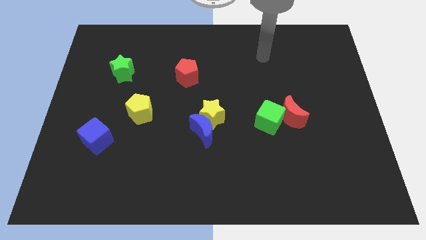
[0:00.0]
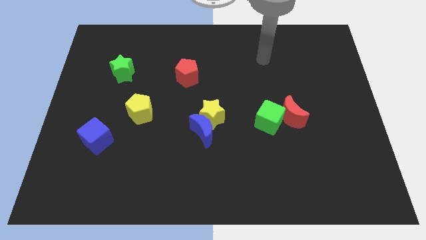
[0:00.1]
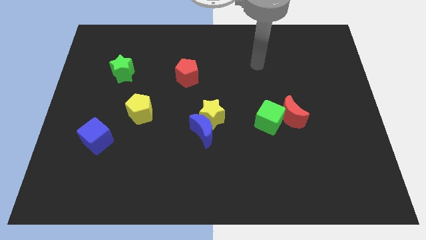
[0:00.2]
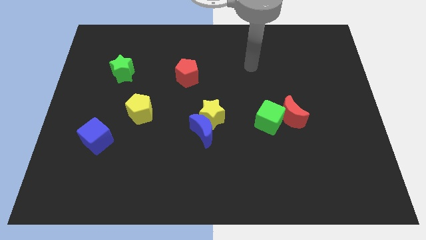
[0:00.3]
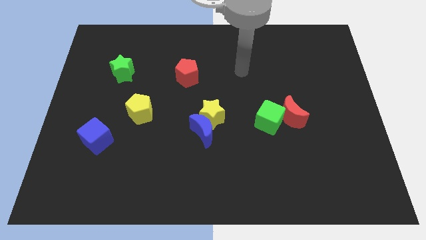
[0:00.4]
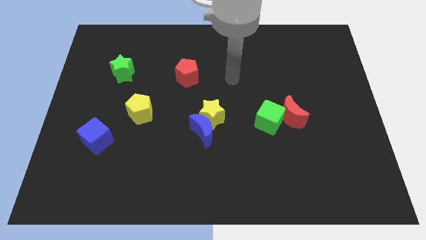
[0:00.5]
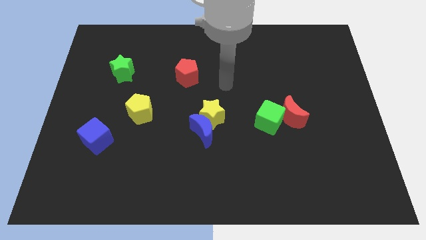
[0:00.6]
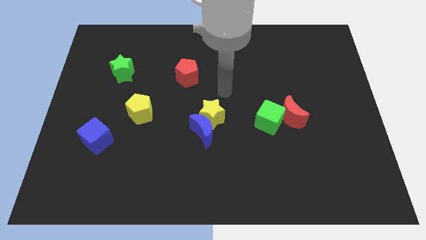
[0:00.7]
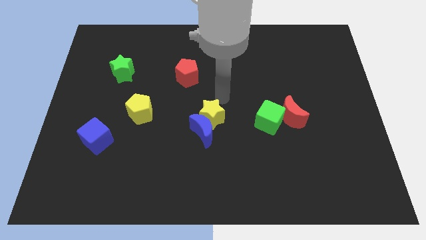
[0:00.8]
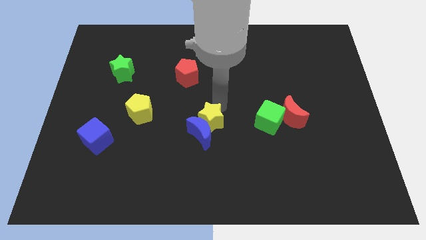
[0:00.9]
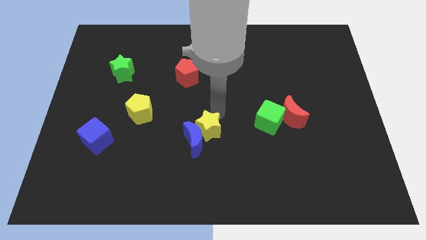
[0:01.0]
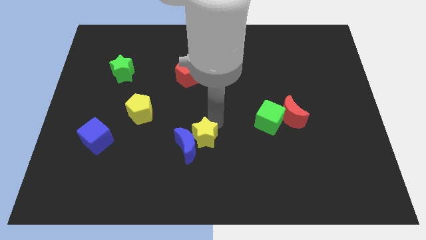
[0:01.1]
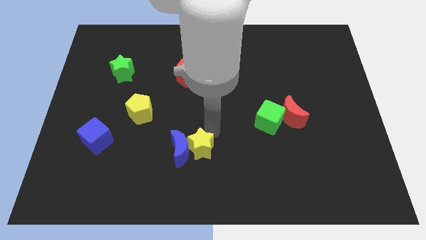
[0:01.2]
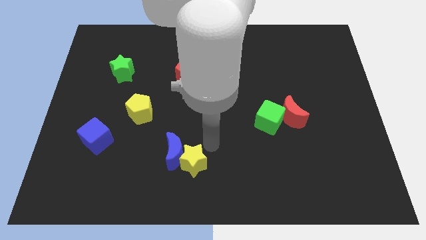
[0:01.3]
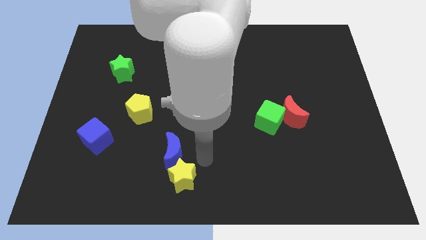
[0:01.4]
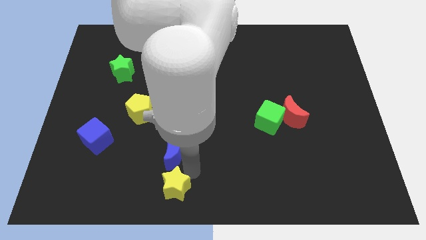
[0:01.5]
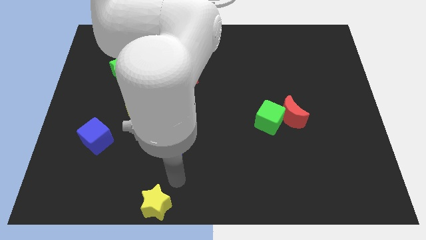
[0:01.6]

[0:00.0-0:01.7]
pull the blue moon apart from the yellow star

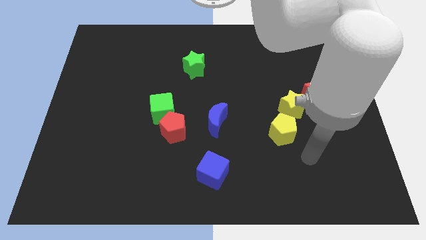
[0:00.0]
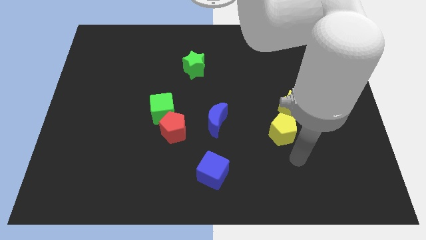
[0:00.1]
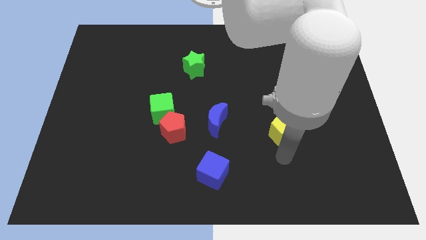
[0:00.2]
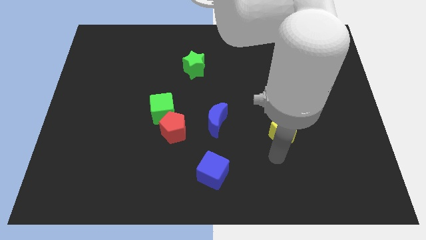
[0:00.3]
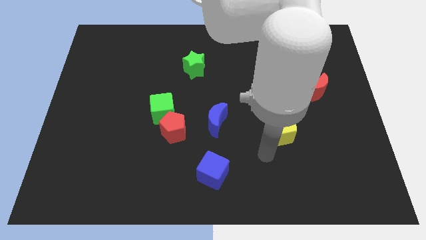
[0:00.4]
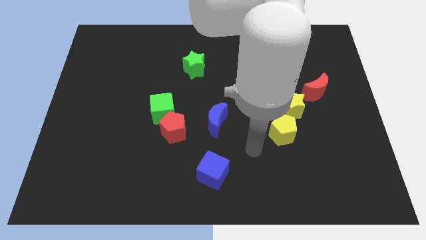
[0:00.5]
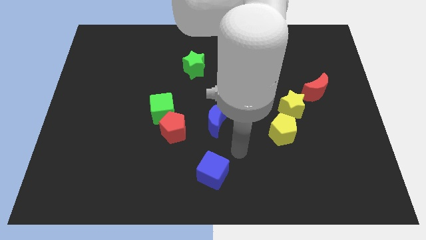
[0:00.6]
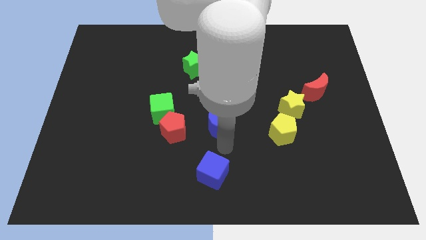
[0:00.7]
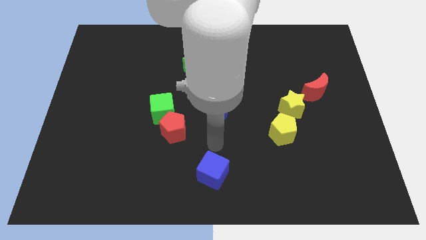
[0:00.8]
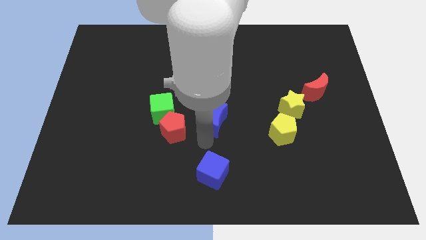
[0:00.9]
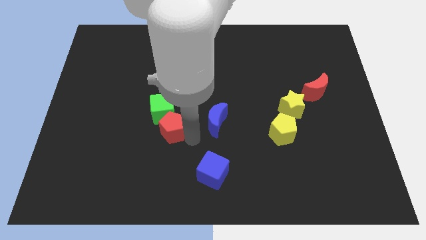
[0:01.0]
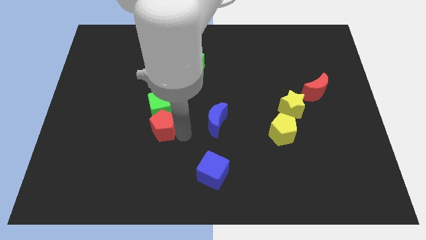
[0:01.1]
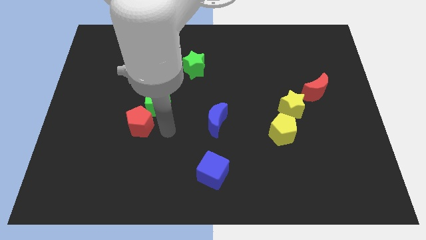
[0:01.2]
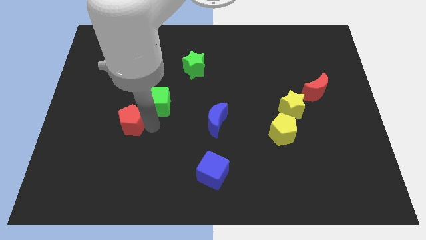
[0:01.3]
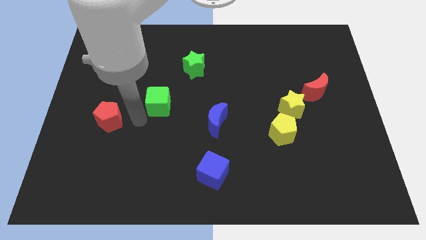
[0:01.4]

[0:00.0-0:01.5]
pull the green cube apart from the red pentagon

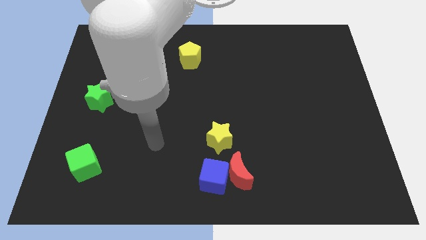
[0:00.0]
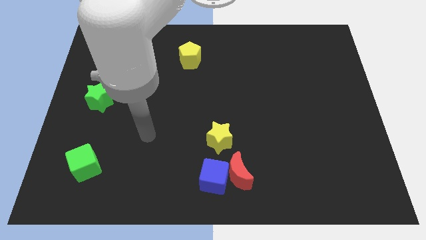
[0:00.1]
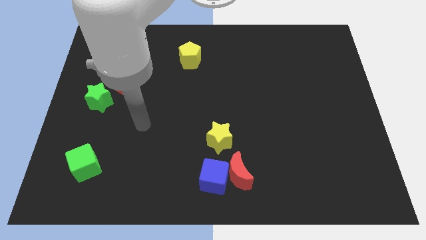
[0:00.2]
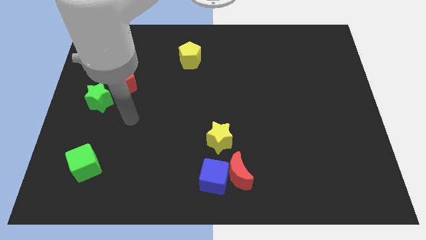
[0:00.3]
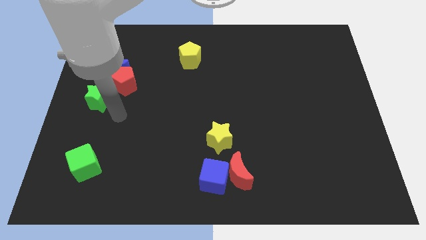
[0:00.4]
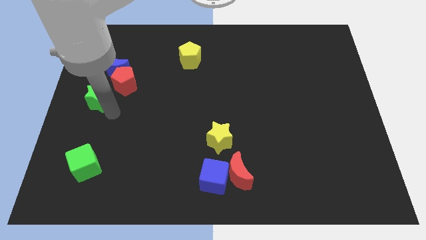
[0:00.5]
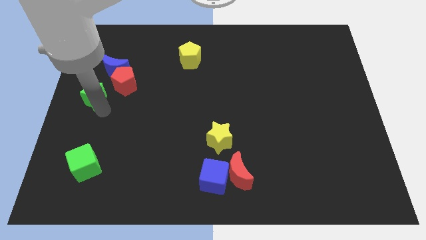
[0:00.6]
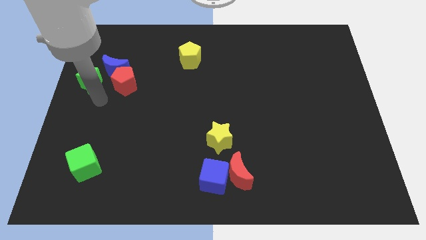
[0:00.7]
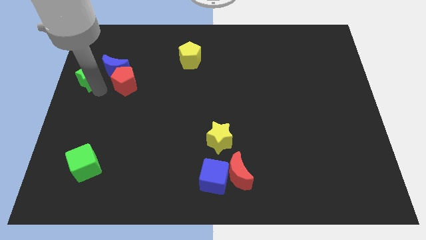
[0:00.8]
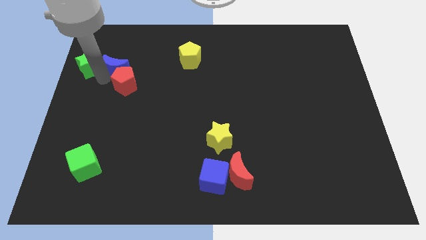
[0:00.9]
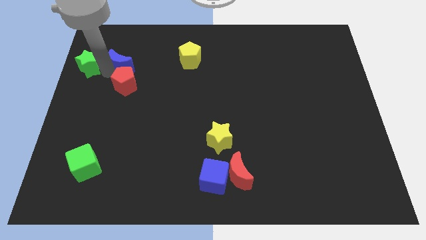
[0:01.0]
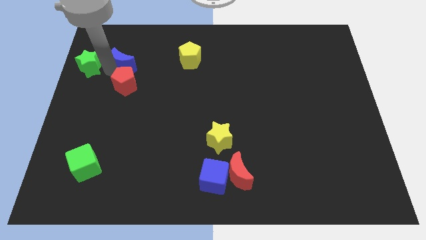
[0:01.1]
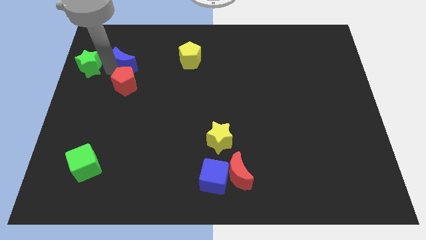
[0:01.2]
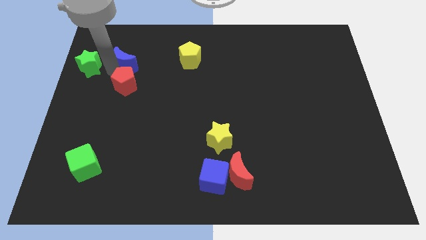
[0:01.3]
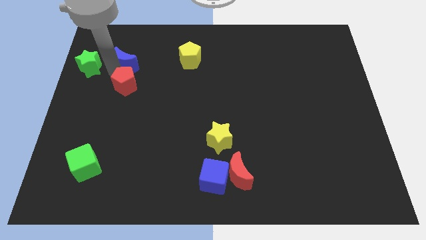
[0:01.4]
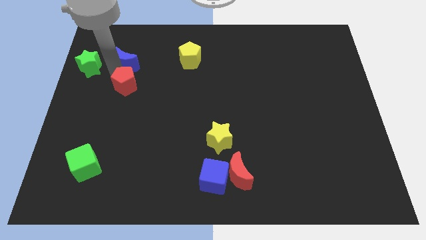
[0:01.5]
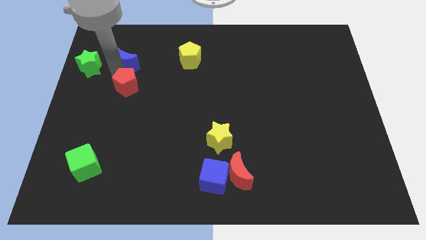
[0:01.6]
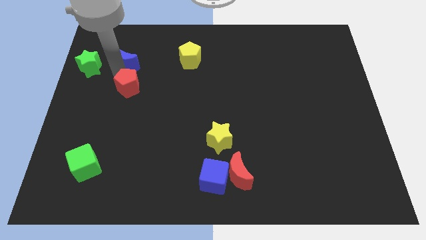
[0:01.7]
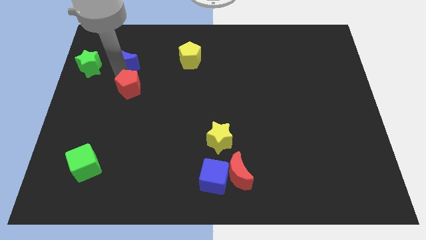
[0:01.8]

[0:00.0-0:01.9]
pull the red pentagon apart from the blue moon and green star

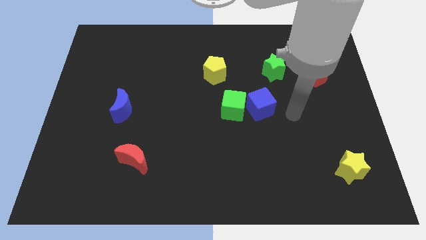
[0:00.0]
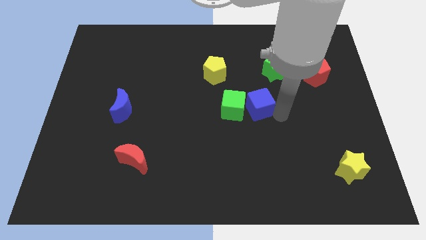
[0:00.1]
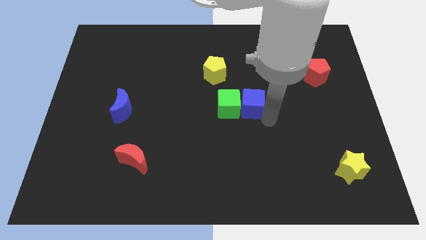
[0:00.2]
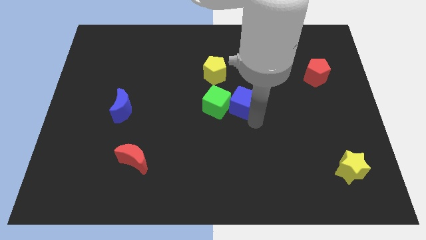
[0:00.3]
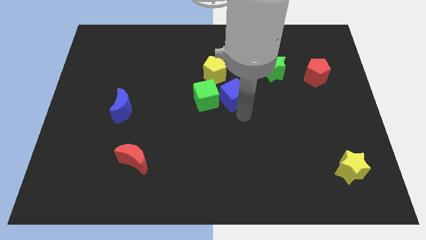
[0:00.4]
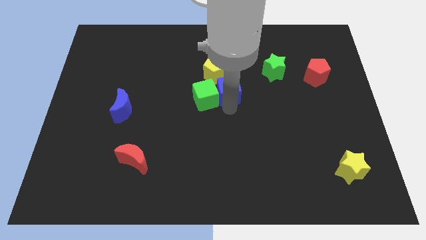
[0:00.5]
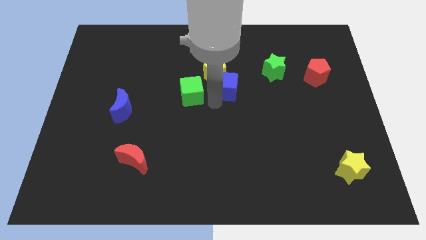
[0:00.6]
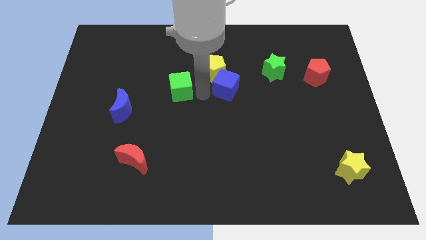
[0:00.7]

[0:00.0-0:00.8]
move the blue cube away from the green cube

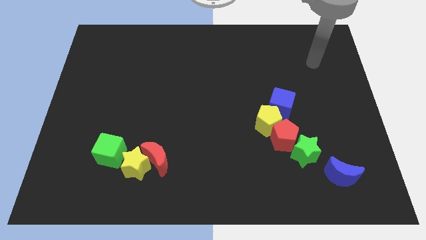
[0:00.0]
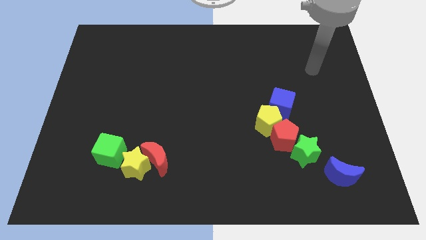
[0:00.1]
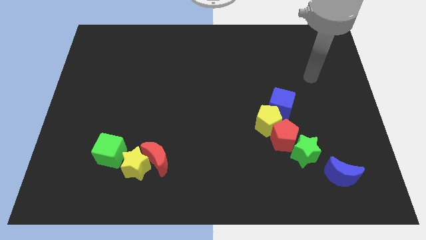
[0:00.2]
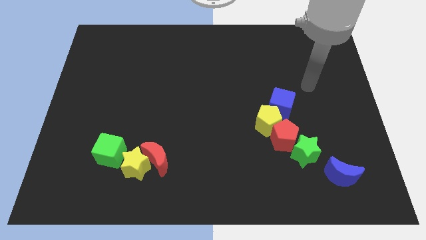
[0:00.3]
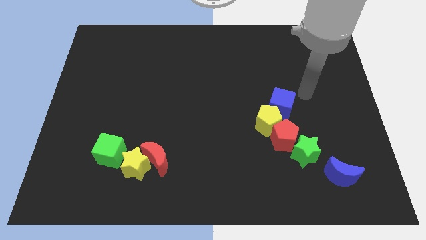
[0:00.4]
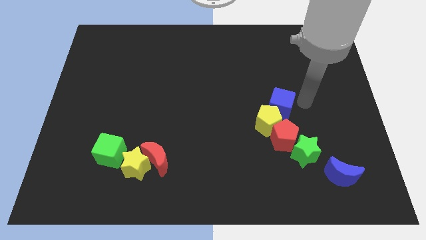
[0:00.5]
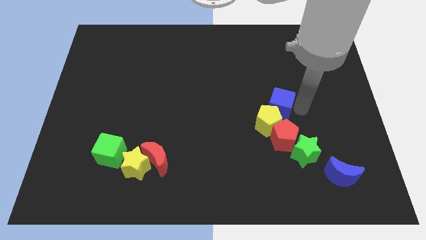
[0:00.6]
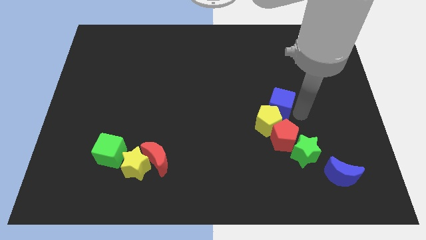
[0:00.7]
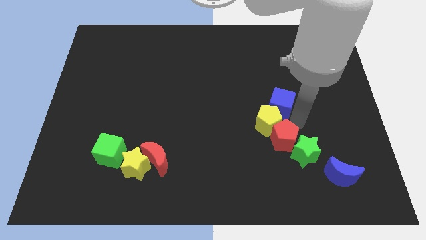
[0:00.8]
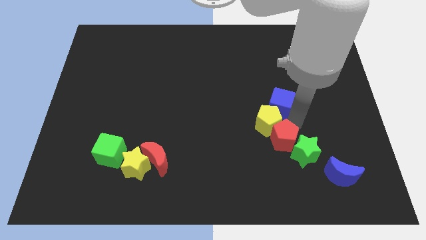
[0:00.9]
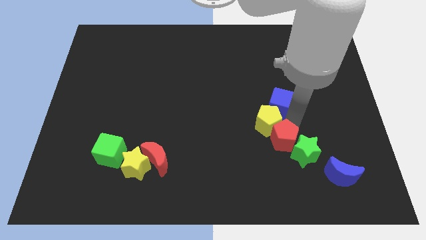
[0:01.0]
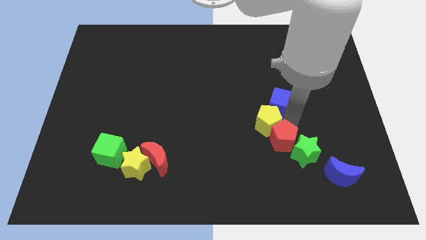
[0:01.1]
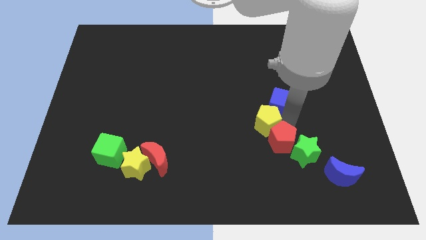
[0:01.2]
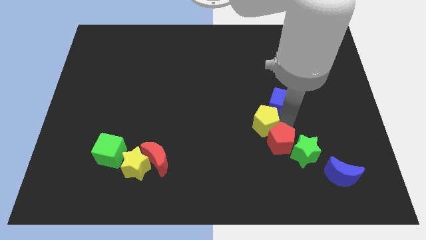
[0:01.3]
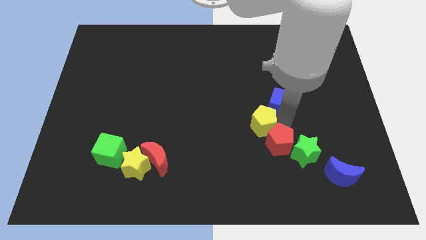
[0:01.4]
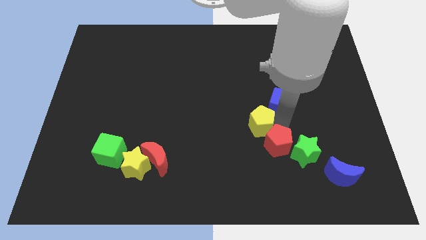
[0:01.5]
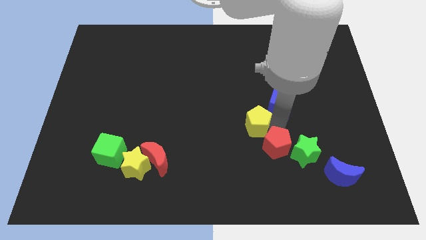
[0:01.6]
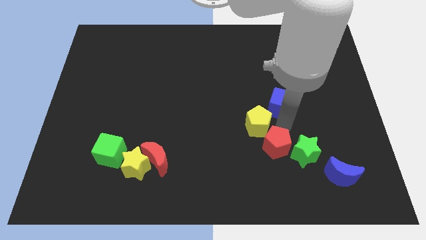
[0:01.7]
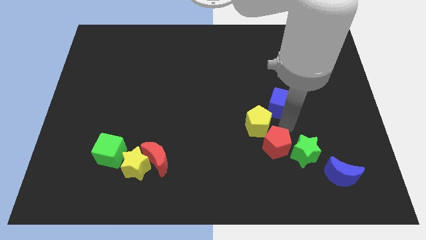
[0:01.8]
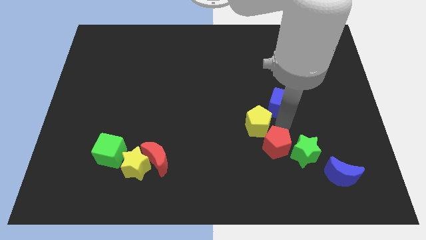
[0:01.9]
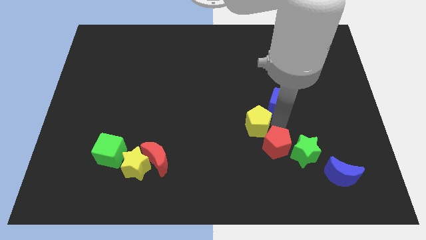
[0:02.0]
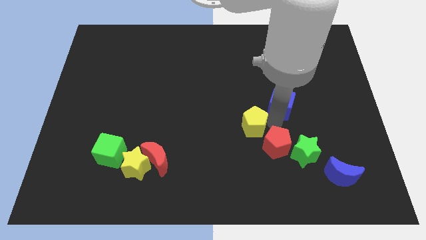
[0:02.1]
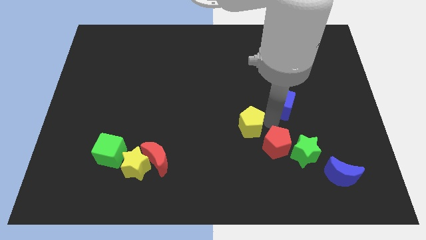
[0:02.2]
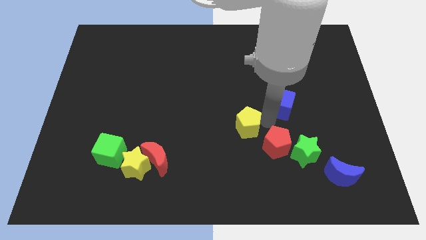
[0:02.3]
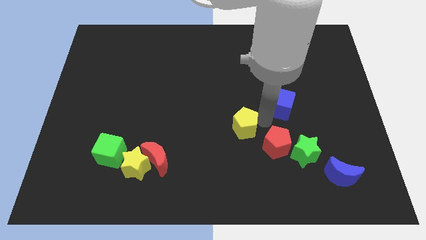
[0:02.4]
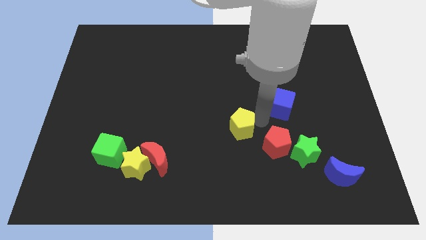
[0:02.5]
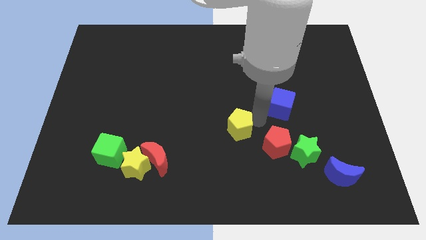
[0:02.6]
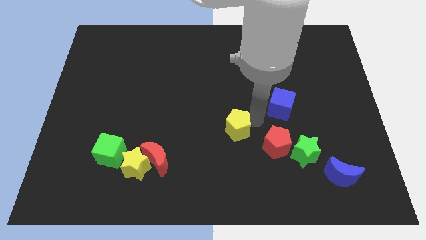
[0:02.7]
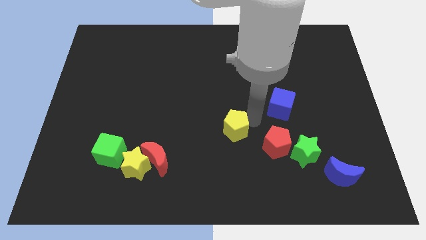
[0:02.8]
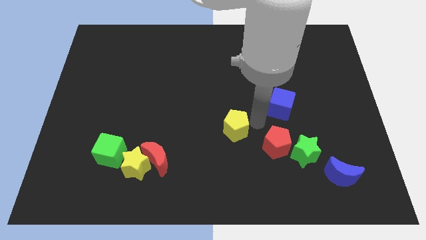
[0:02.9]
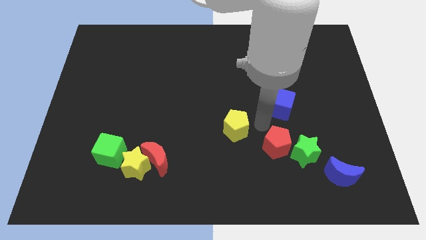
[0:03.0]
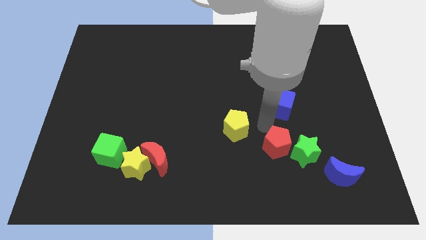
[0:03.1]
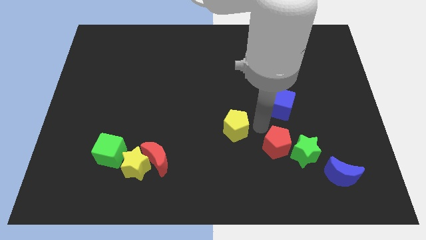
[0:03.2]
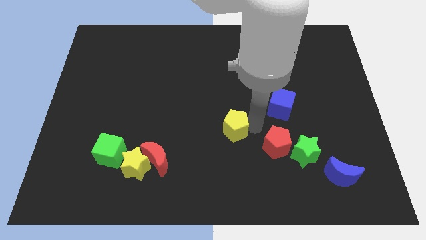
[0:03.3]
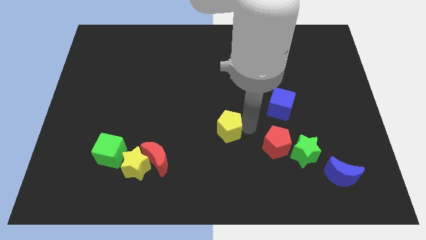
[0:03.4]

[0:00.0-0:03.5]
move the yellow pentagon away from the red pentagon and blue cube
